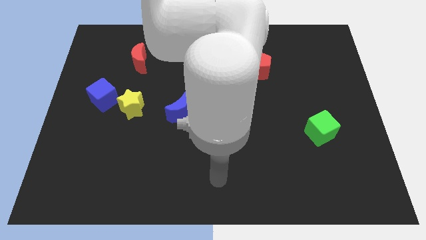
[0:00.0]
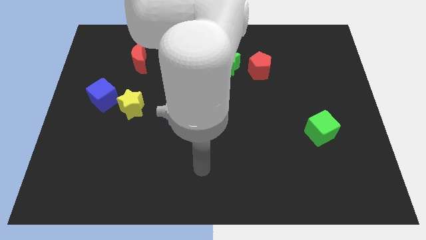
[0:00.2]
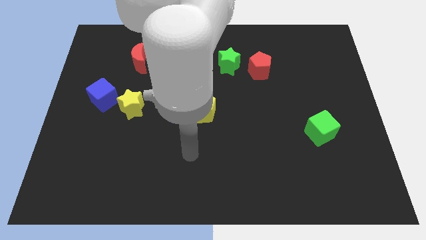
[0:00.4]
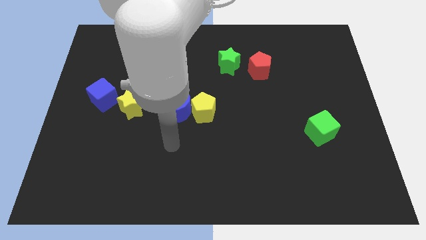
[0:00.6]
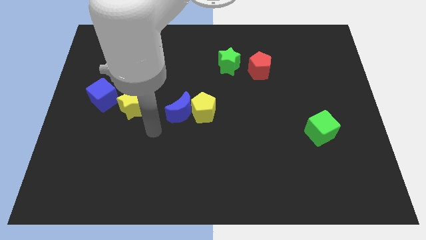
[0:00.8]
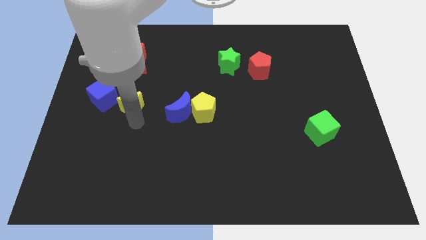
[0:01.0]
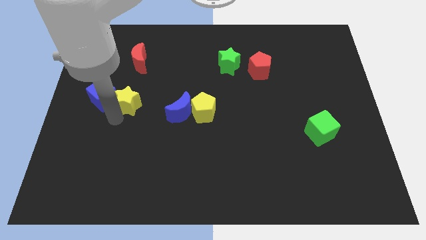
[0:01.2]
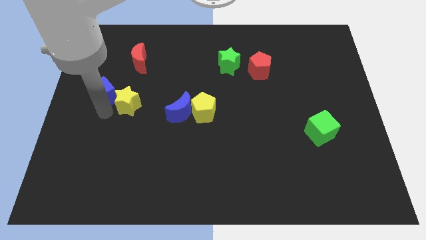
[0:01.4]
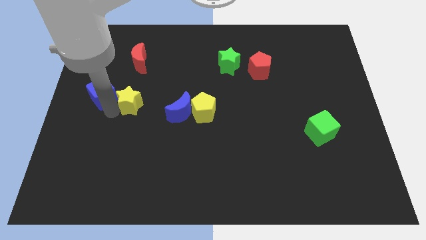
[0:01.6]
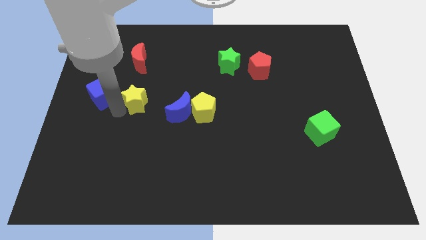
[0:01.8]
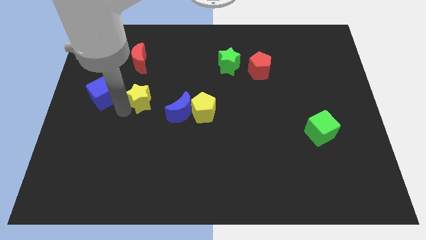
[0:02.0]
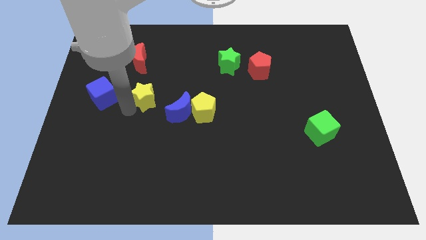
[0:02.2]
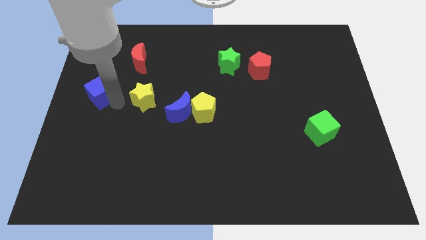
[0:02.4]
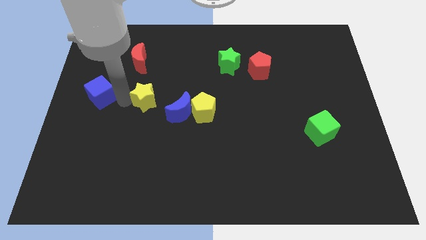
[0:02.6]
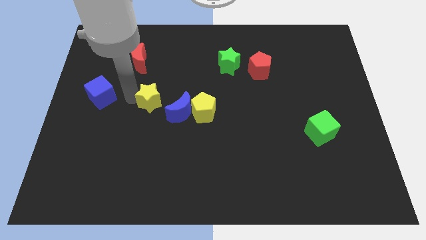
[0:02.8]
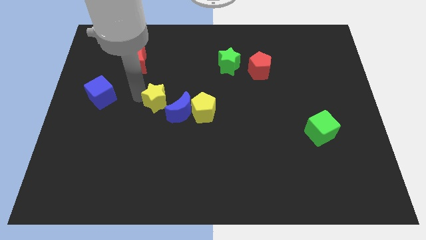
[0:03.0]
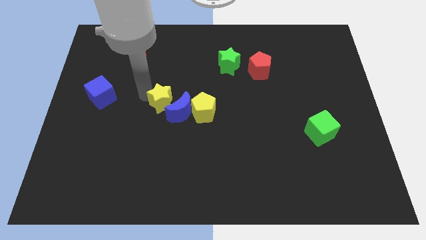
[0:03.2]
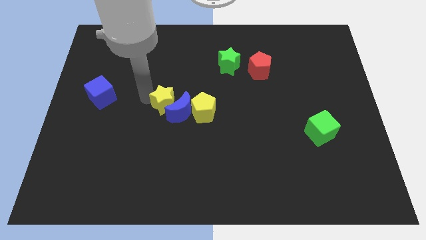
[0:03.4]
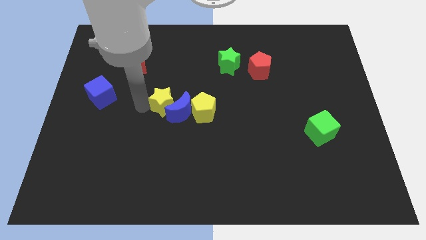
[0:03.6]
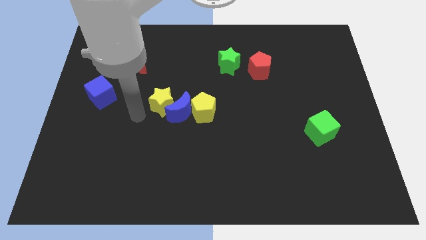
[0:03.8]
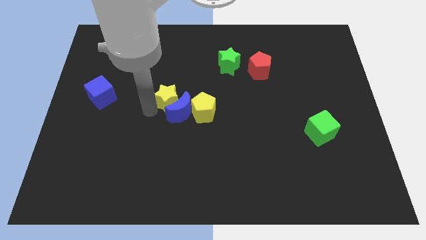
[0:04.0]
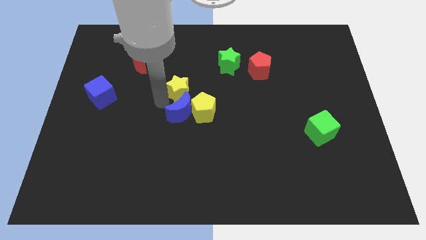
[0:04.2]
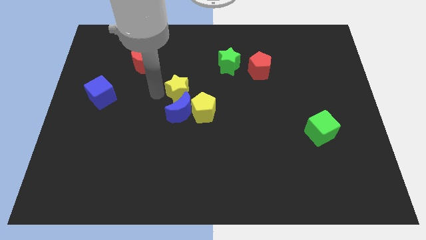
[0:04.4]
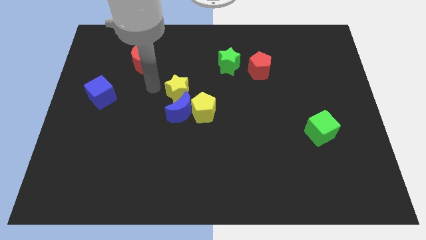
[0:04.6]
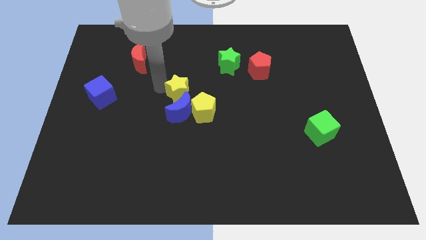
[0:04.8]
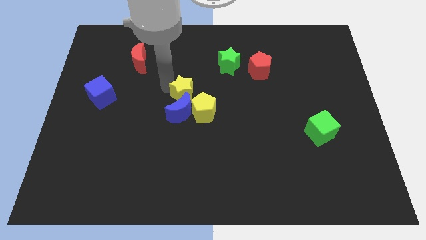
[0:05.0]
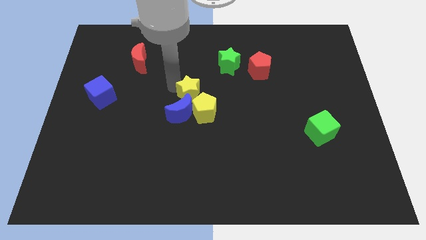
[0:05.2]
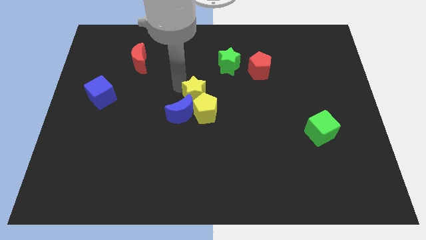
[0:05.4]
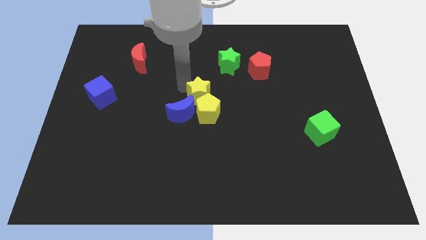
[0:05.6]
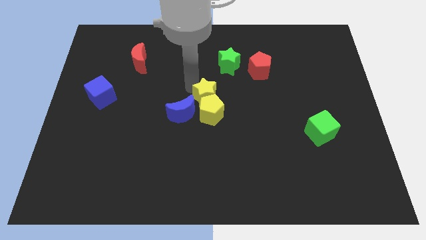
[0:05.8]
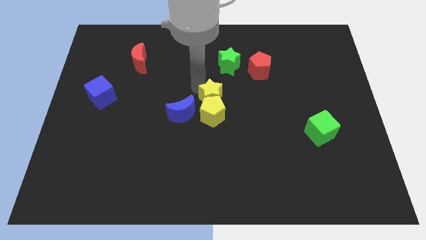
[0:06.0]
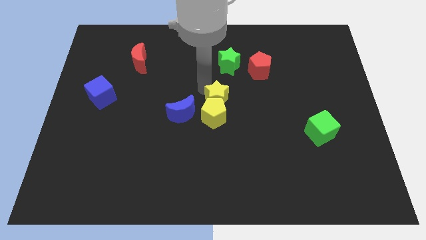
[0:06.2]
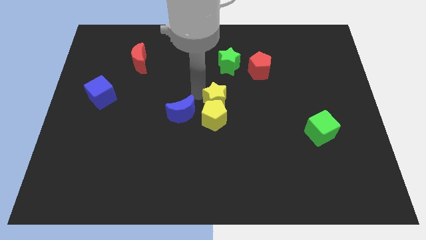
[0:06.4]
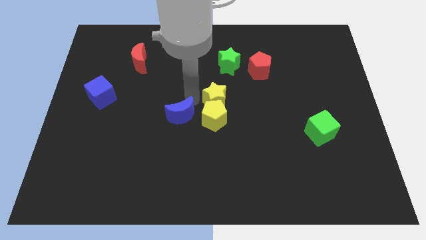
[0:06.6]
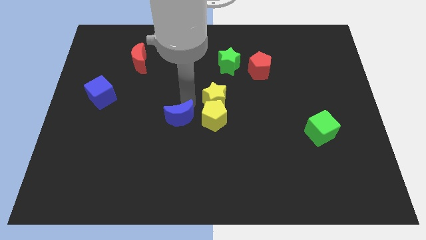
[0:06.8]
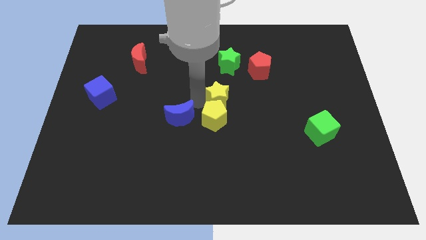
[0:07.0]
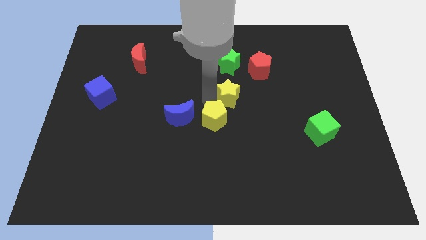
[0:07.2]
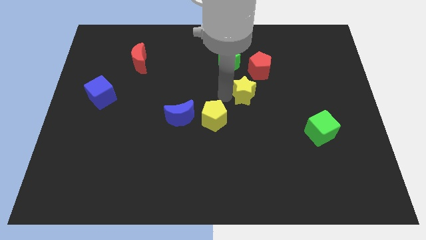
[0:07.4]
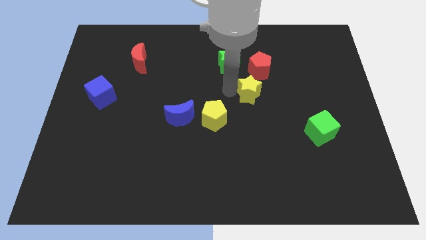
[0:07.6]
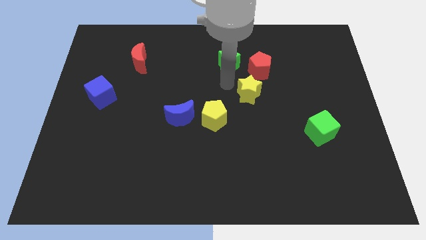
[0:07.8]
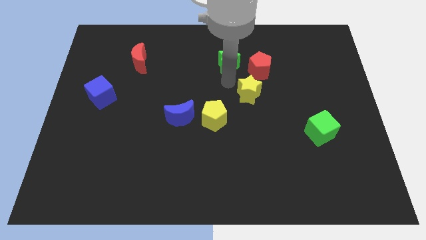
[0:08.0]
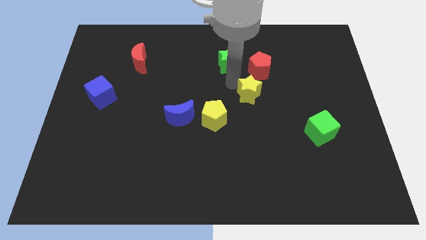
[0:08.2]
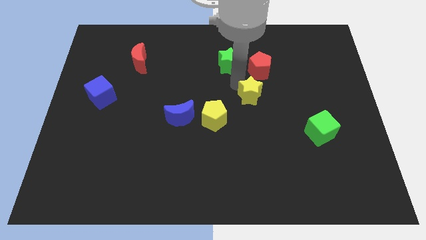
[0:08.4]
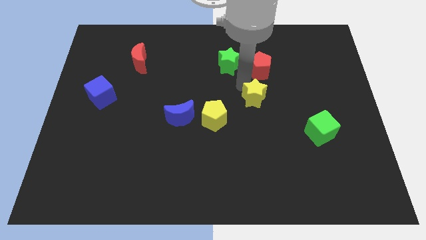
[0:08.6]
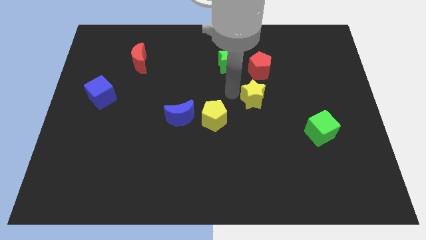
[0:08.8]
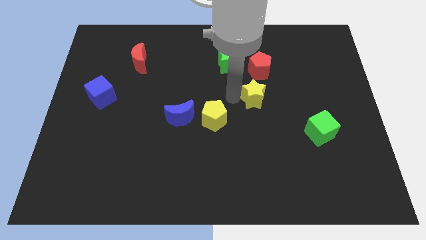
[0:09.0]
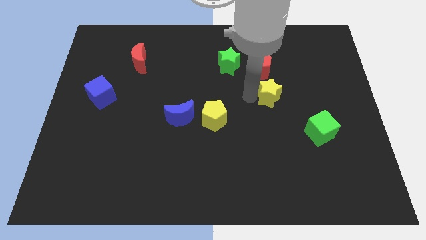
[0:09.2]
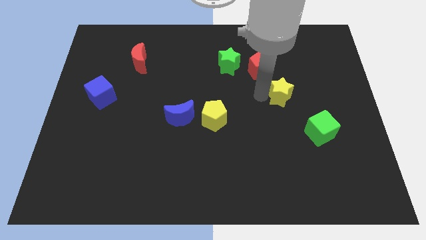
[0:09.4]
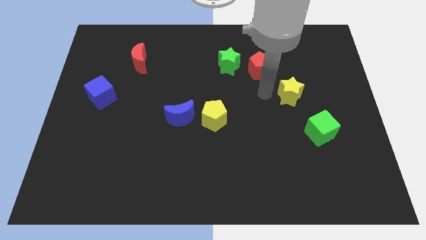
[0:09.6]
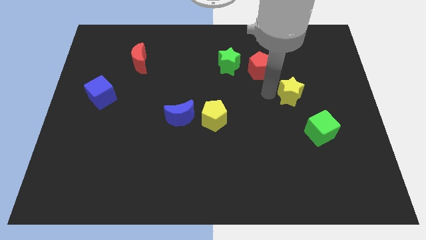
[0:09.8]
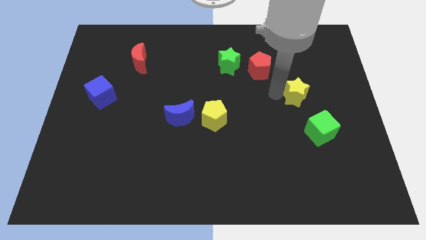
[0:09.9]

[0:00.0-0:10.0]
put the yellow star to the top side of the green cube

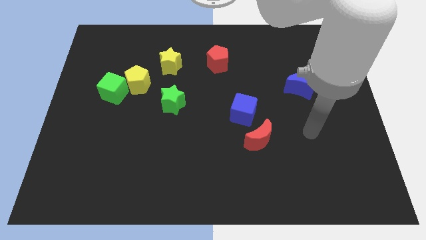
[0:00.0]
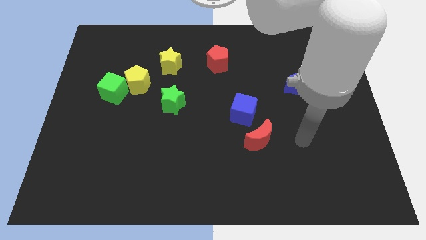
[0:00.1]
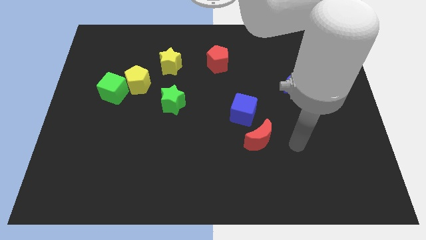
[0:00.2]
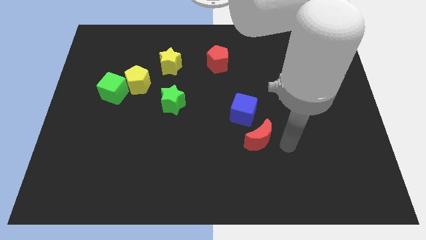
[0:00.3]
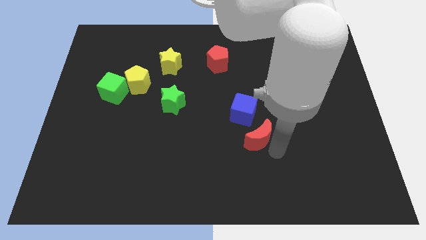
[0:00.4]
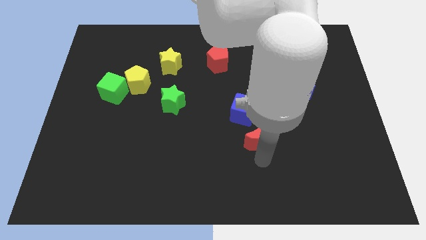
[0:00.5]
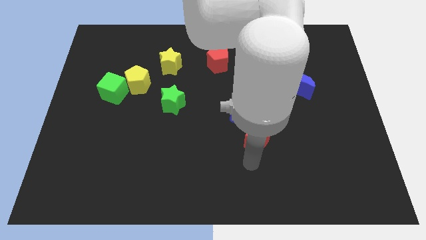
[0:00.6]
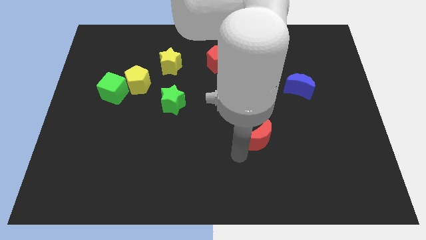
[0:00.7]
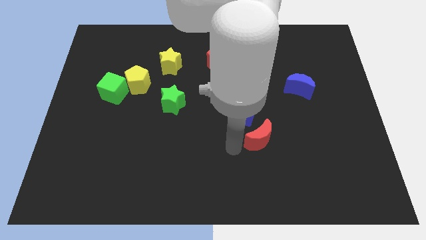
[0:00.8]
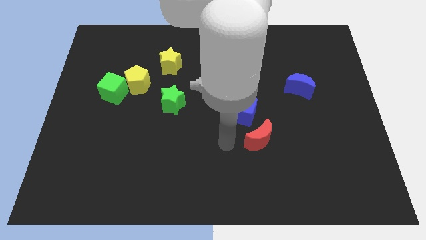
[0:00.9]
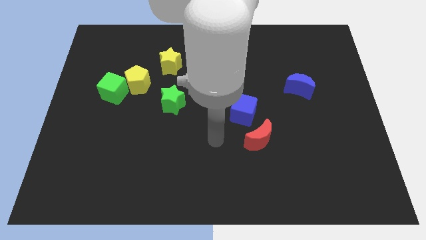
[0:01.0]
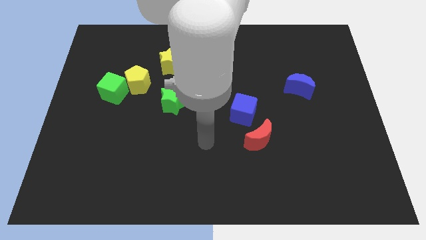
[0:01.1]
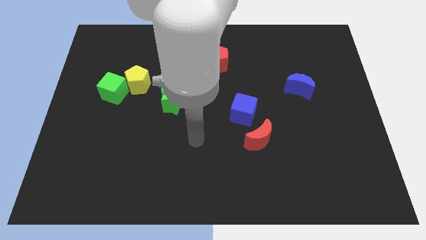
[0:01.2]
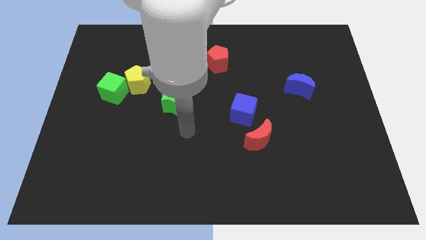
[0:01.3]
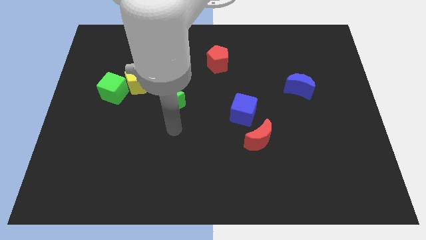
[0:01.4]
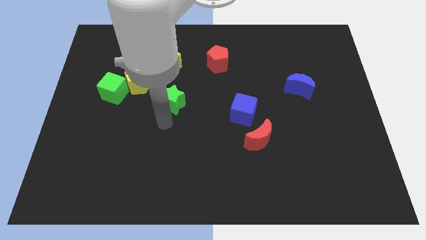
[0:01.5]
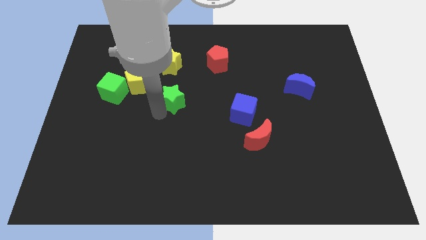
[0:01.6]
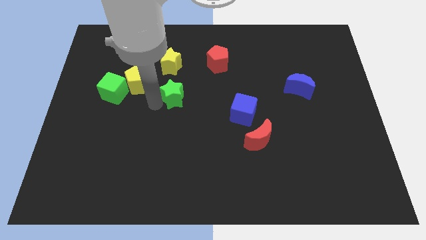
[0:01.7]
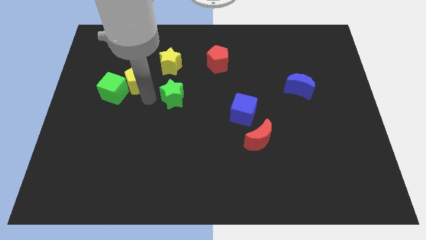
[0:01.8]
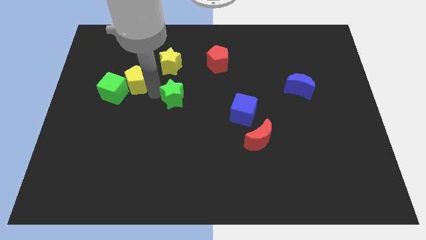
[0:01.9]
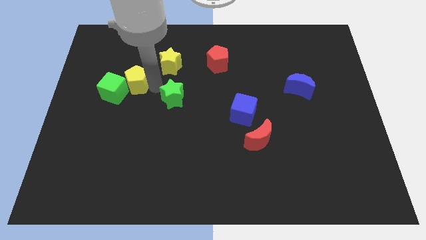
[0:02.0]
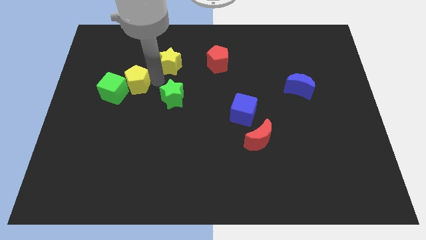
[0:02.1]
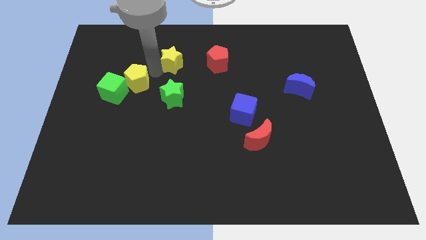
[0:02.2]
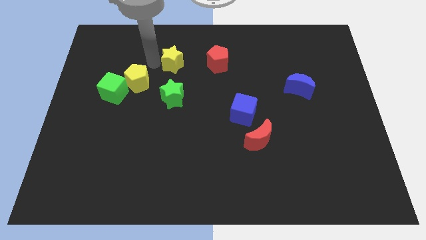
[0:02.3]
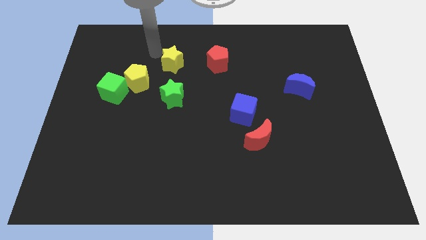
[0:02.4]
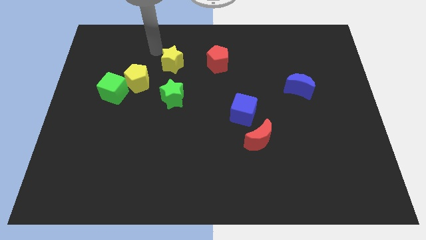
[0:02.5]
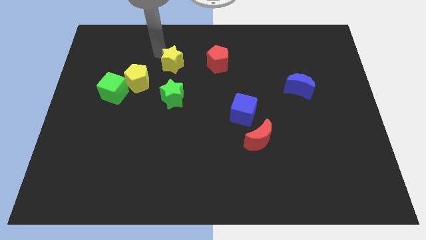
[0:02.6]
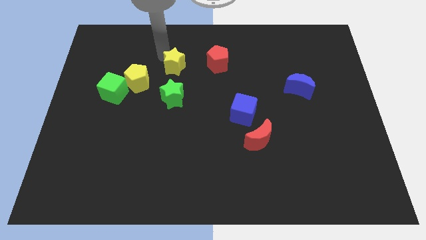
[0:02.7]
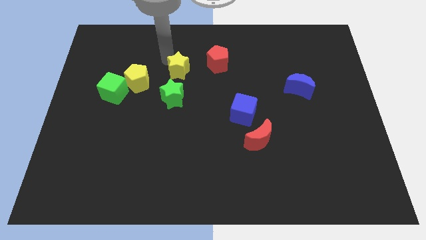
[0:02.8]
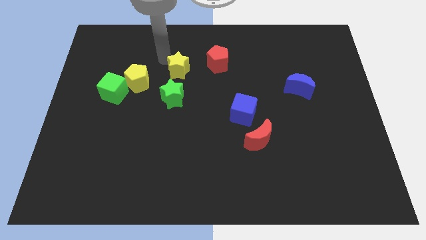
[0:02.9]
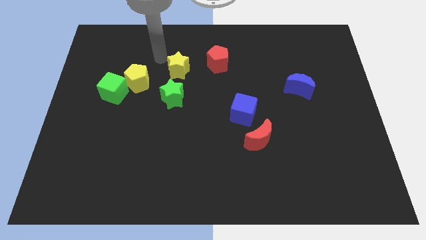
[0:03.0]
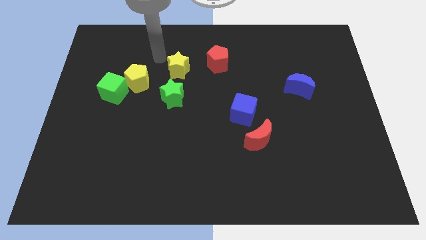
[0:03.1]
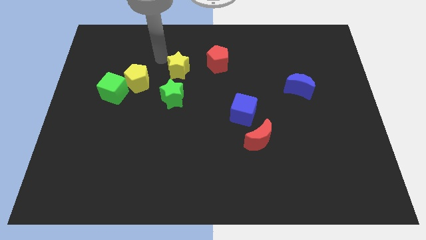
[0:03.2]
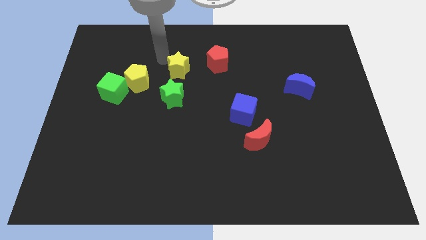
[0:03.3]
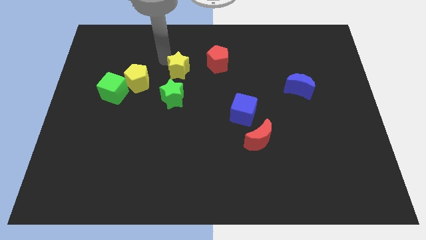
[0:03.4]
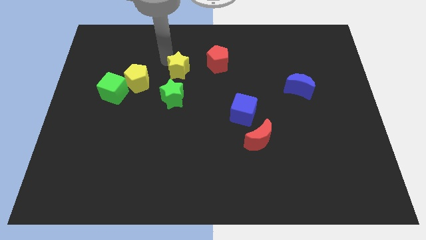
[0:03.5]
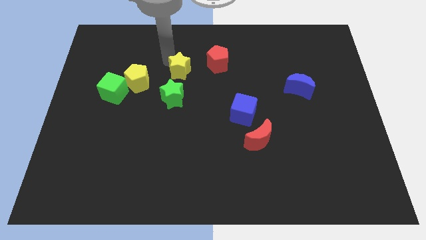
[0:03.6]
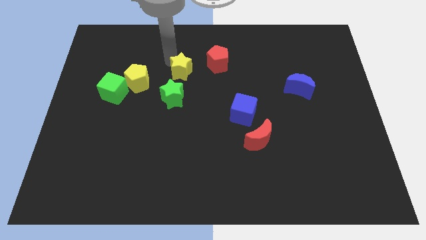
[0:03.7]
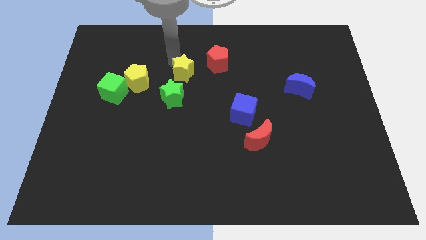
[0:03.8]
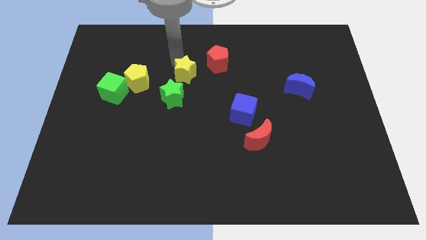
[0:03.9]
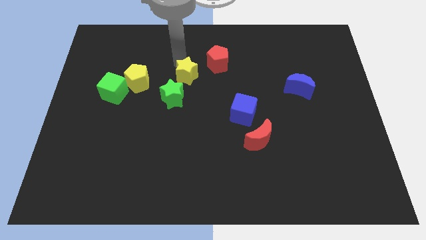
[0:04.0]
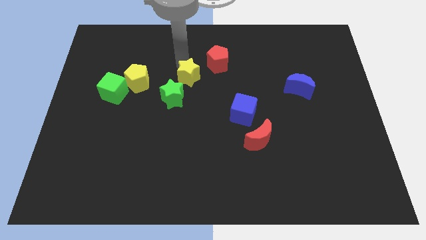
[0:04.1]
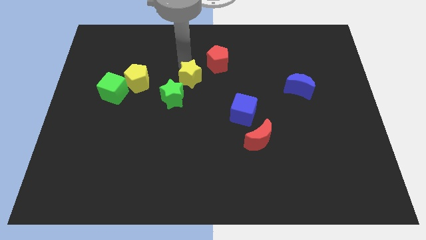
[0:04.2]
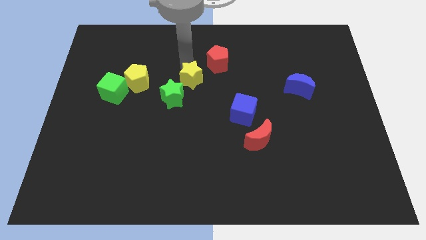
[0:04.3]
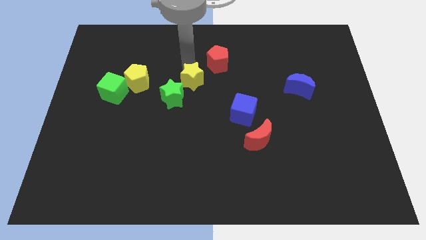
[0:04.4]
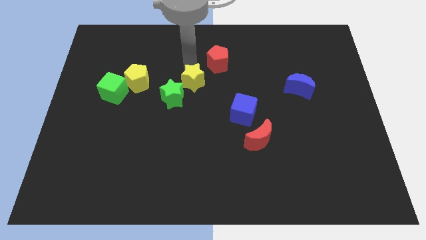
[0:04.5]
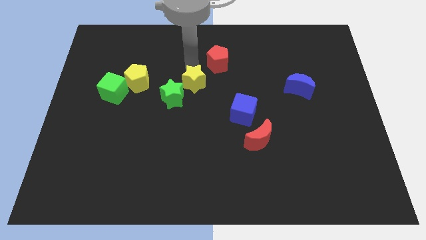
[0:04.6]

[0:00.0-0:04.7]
put the yellow star right of the green star
